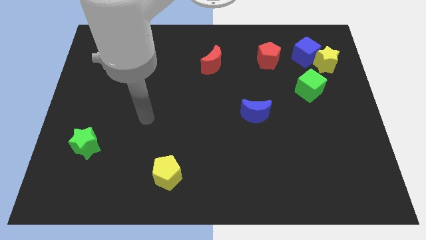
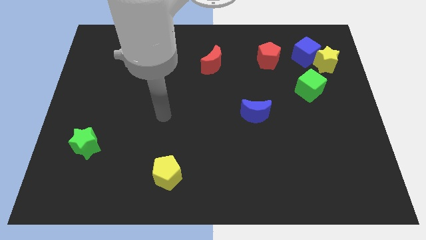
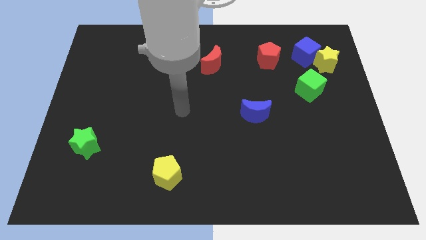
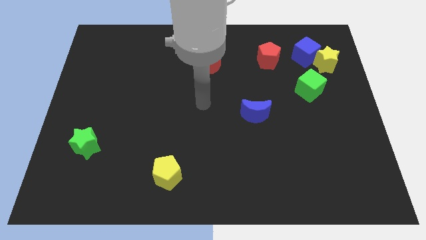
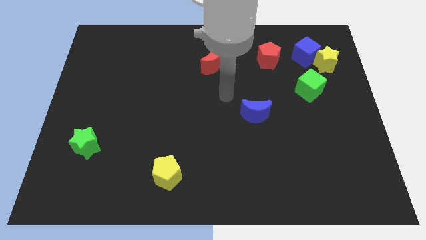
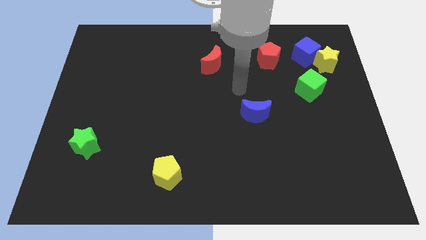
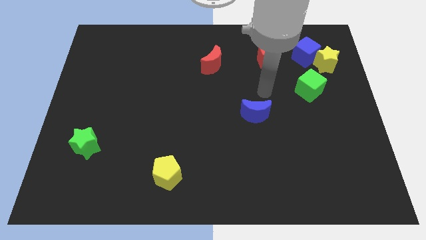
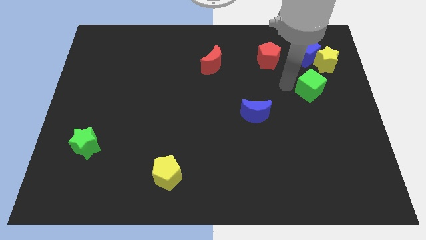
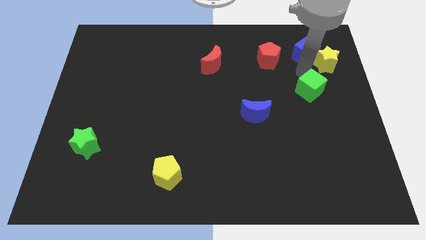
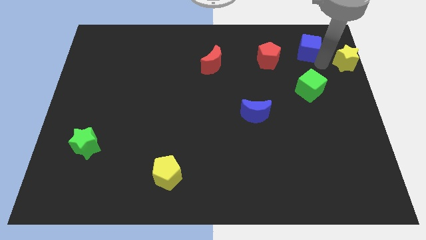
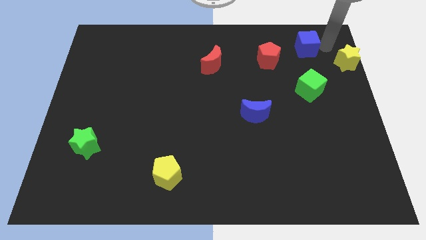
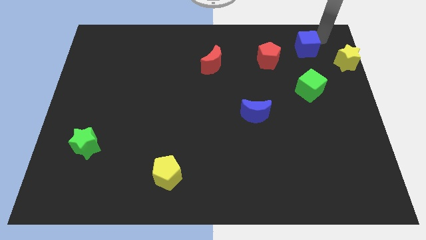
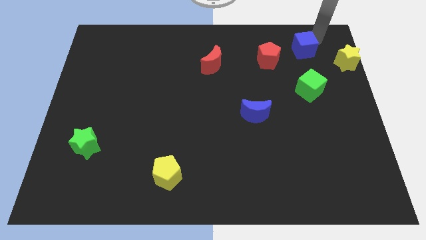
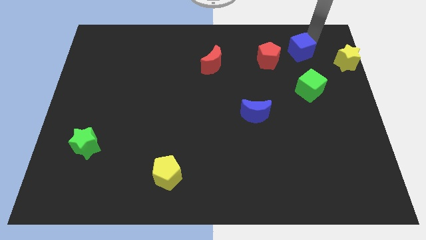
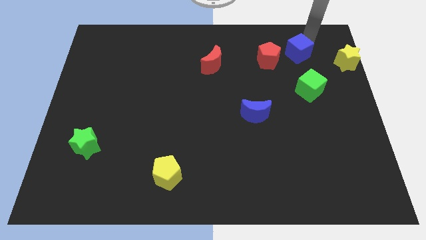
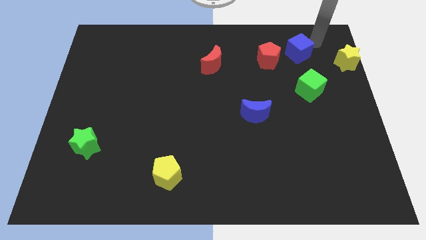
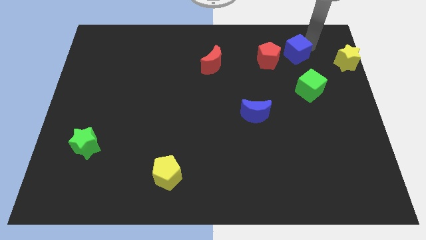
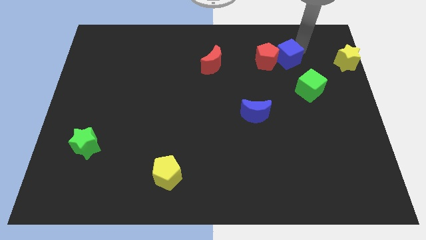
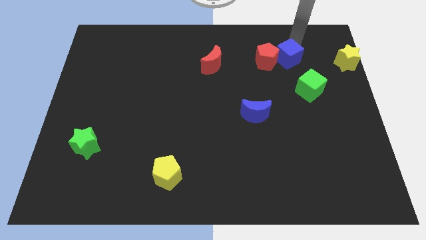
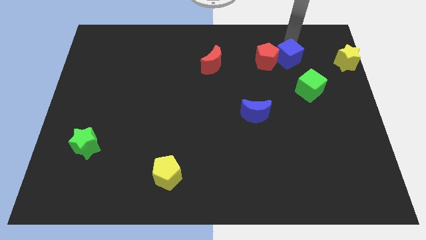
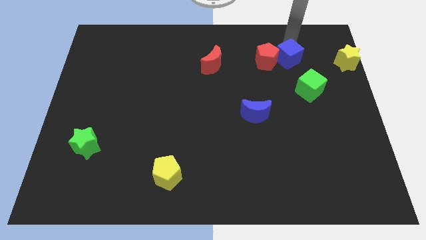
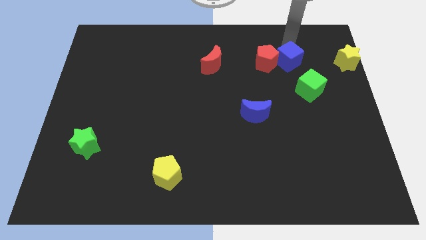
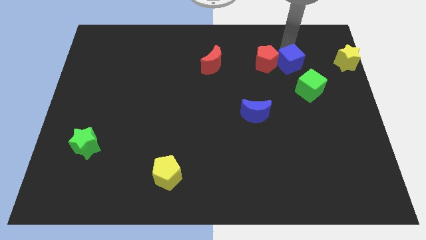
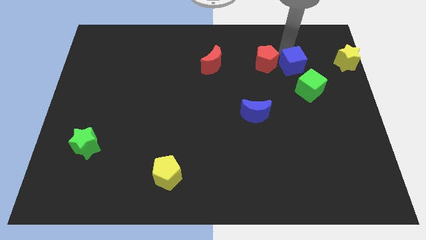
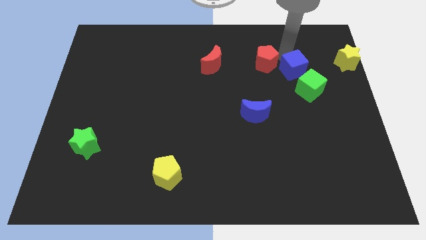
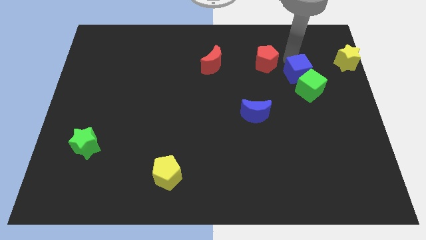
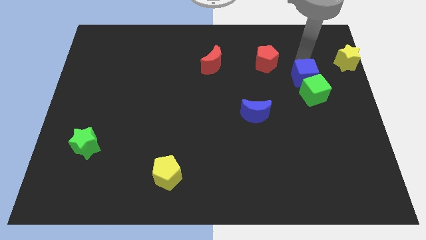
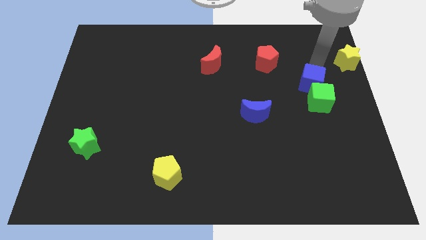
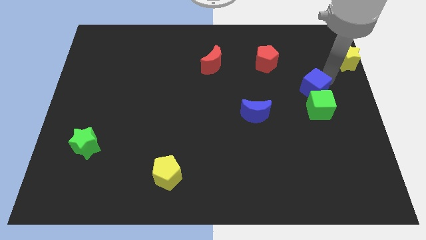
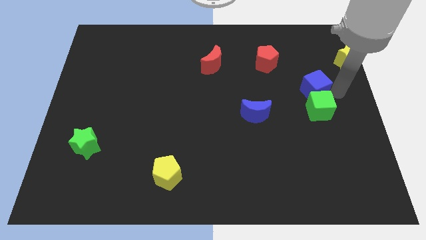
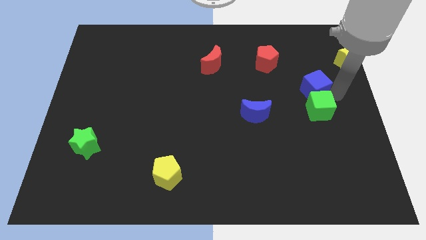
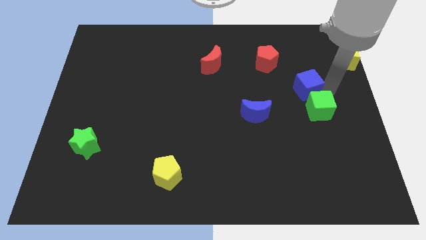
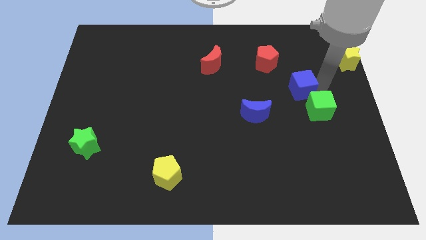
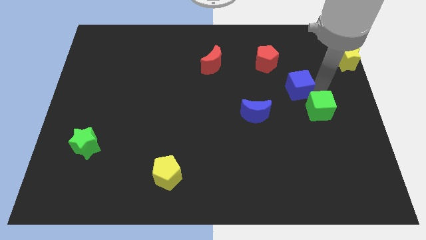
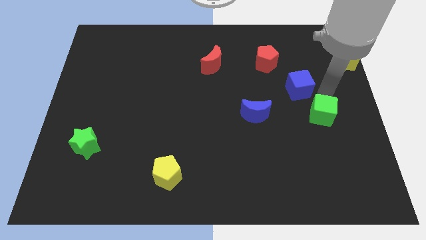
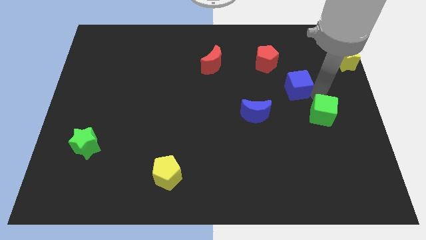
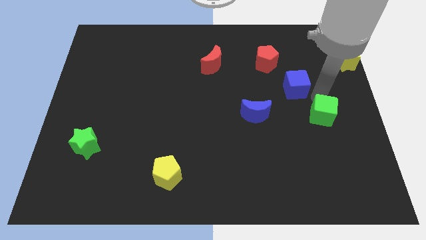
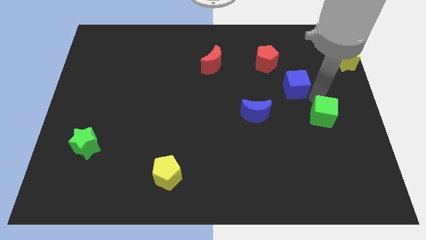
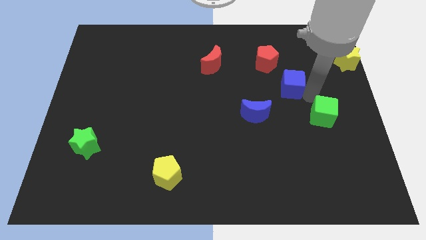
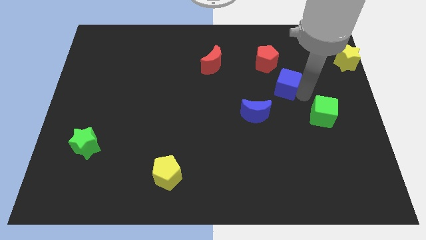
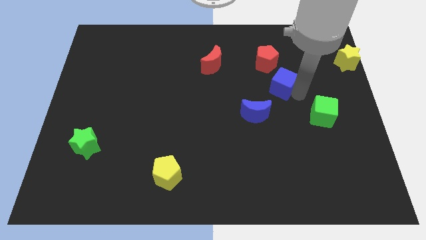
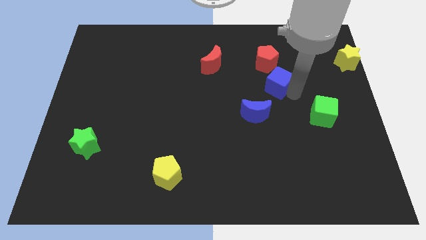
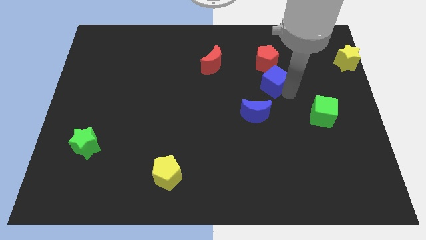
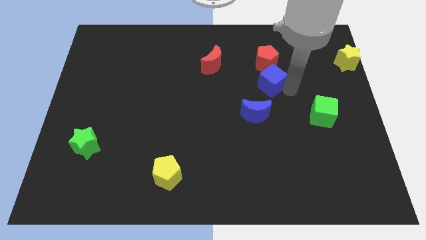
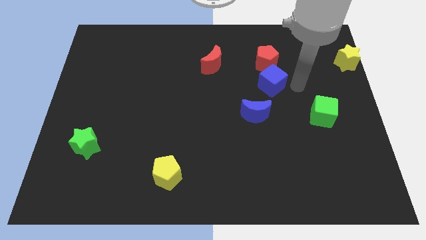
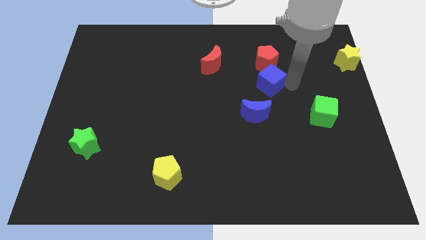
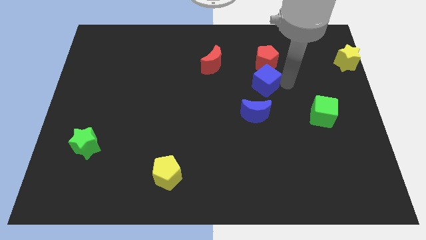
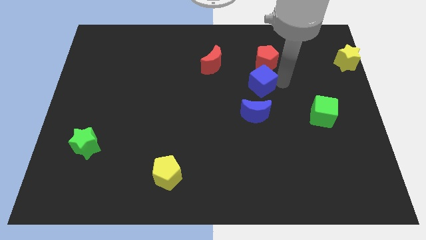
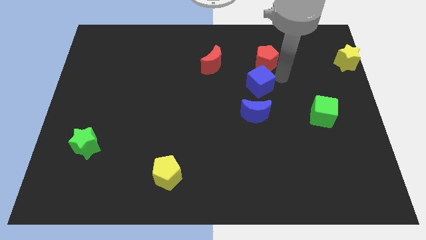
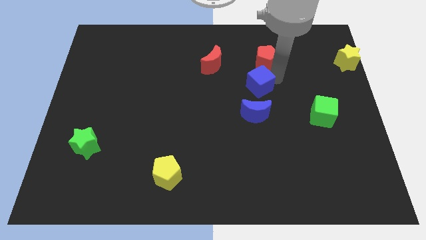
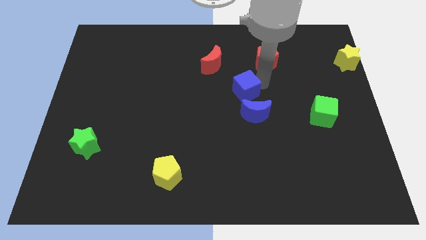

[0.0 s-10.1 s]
move the blue cube down and left diagonally

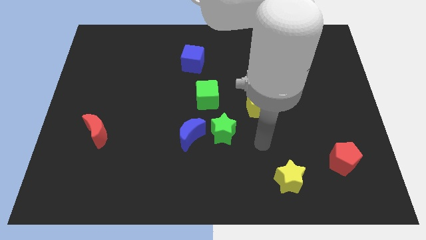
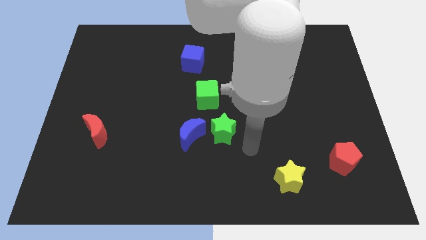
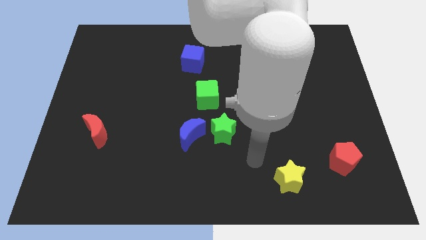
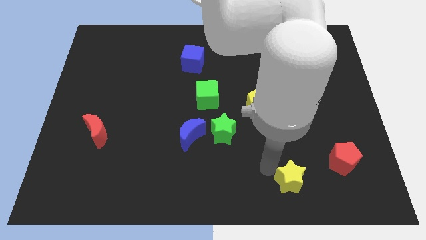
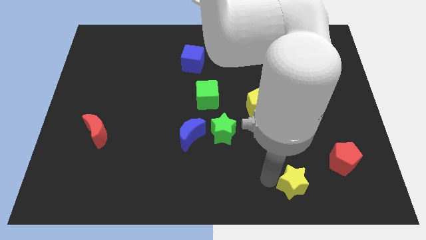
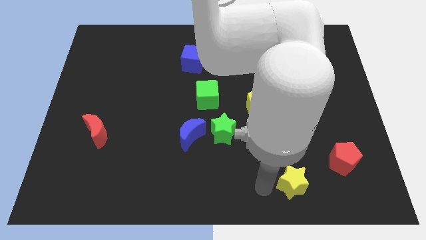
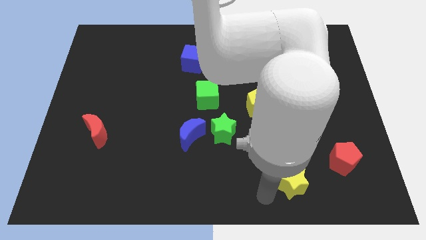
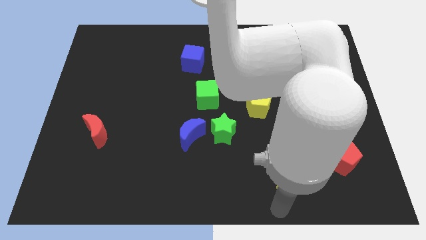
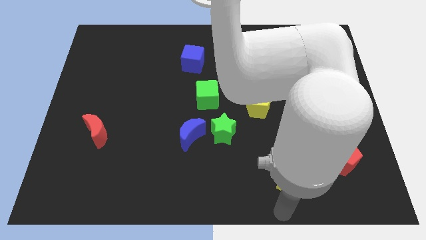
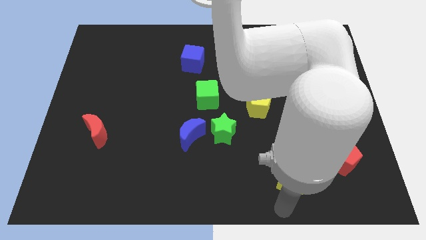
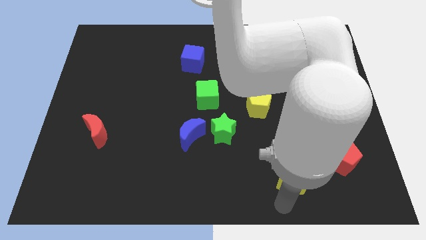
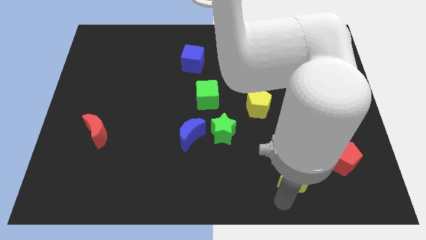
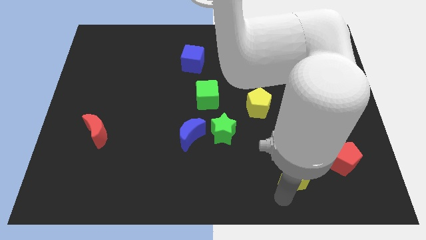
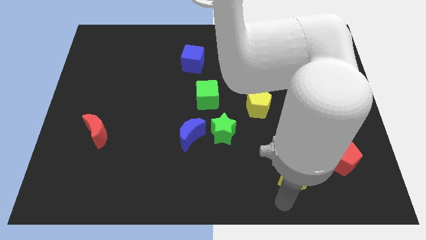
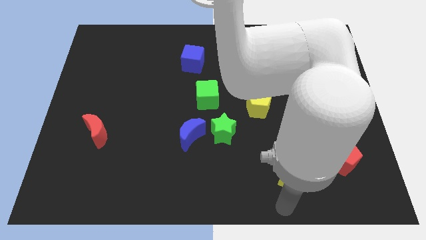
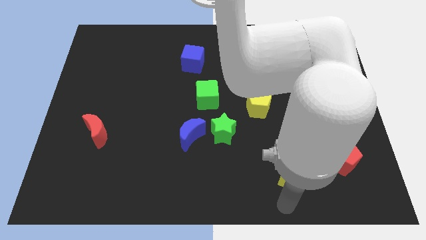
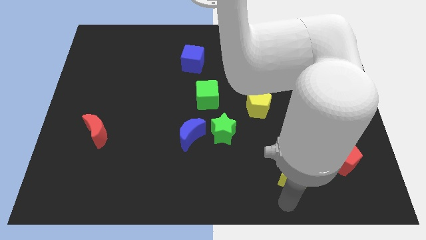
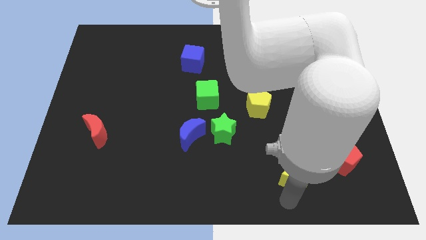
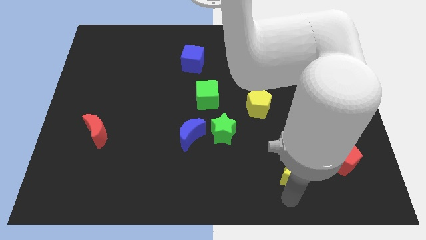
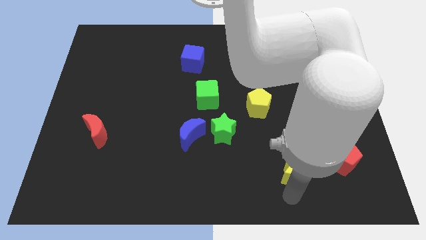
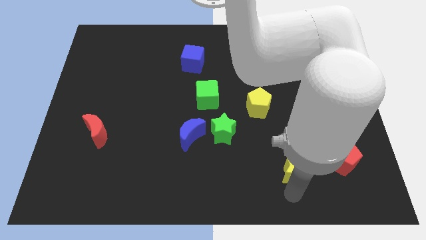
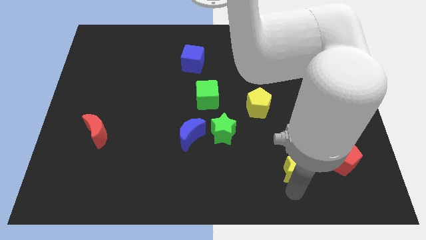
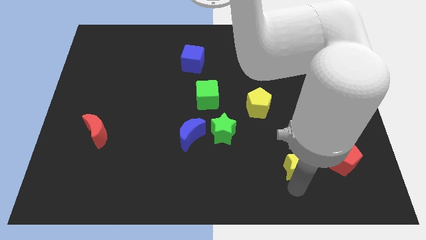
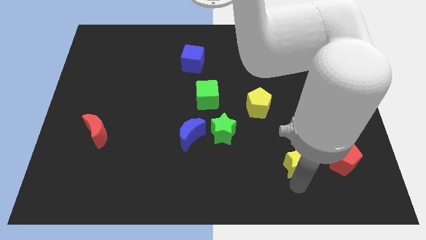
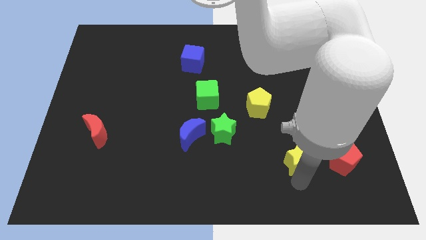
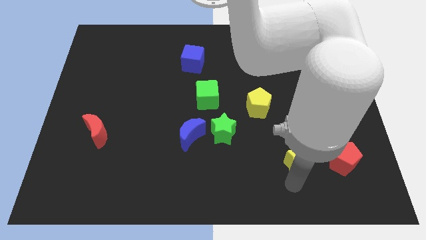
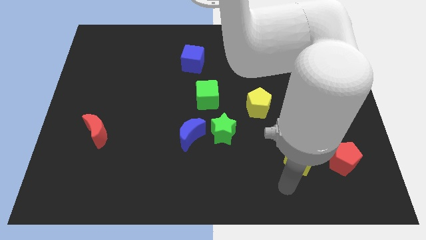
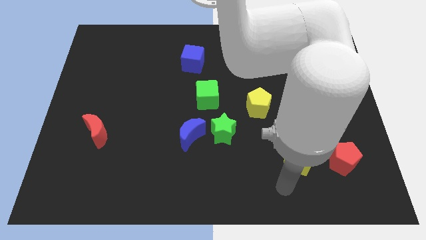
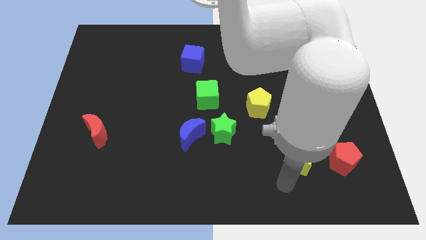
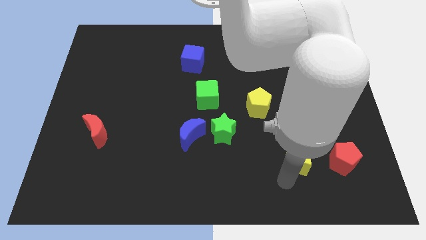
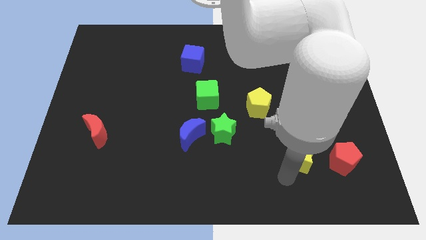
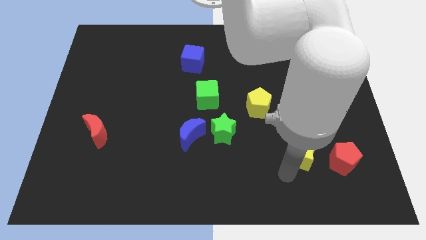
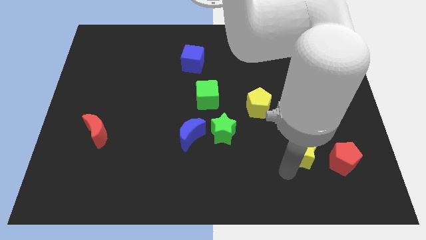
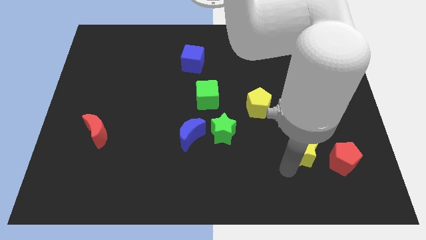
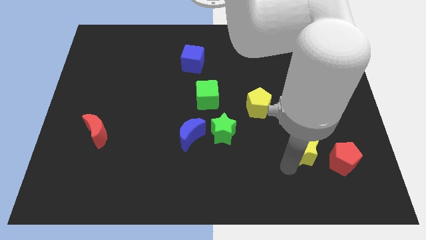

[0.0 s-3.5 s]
push the yellow star diagonally up and right somewhat
